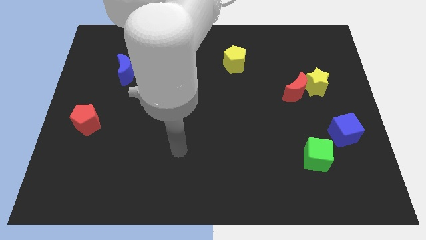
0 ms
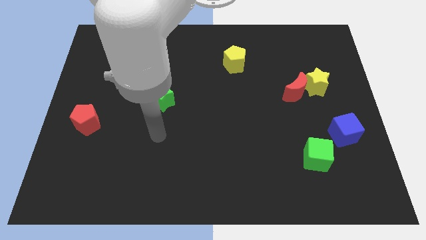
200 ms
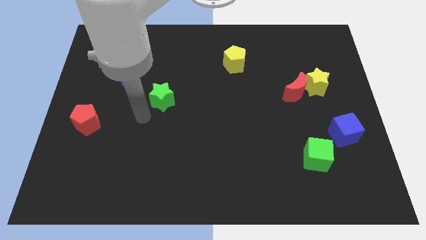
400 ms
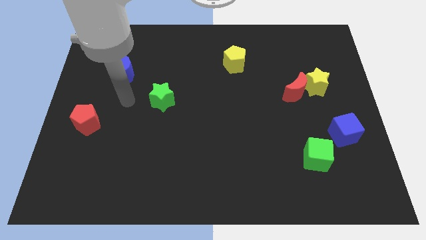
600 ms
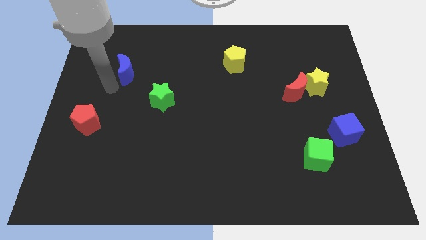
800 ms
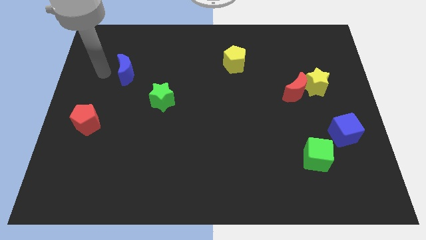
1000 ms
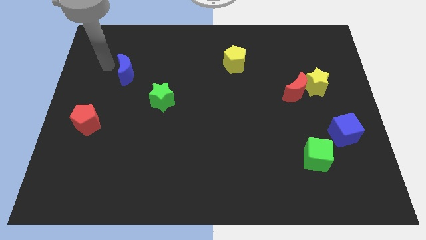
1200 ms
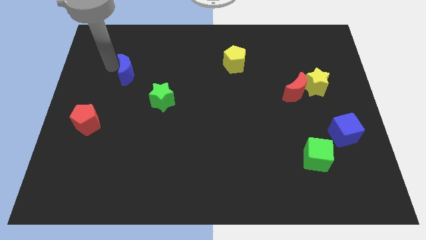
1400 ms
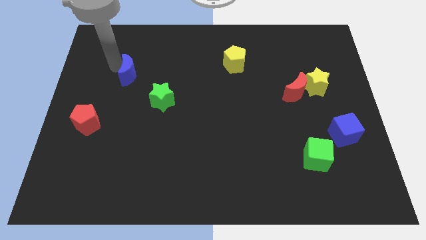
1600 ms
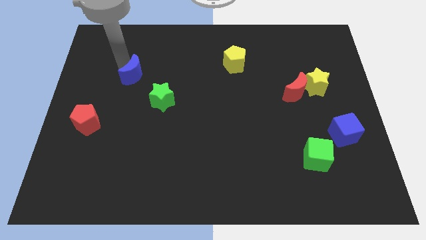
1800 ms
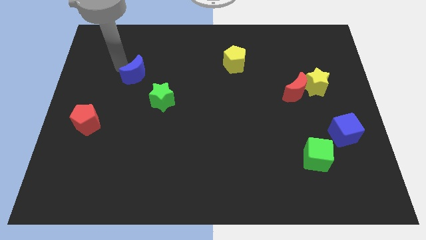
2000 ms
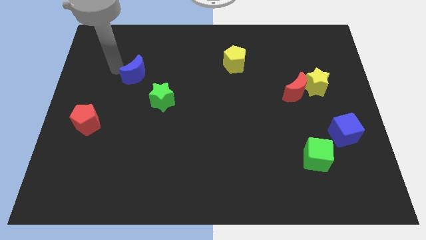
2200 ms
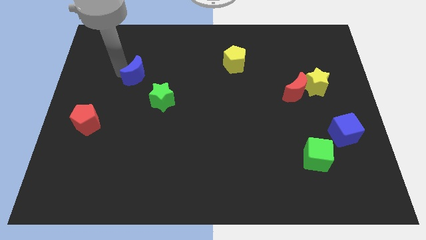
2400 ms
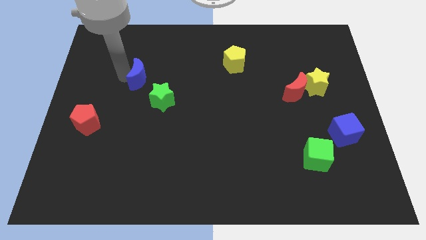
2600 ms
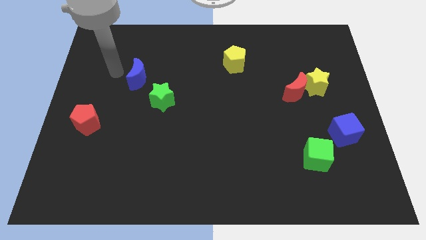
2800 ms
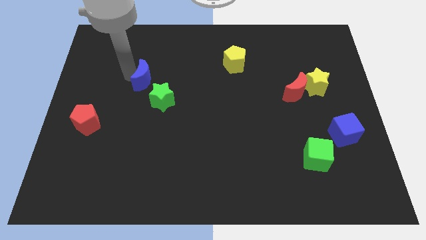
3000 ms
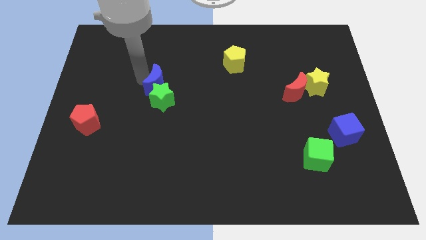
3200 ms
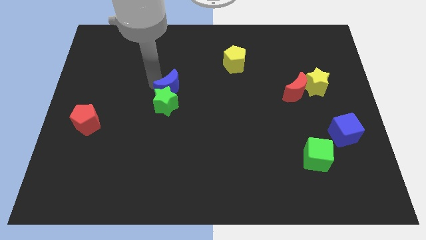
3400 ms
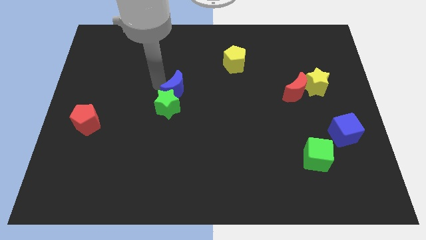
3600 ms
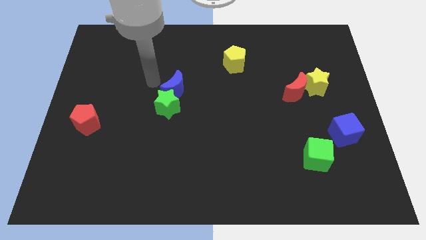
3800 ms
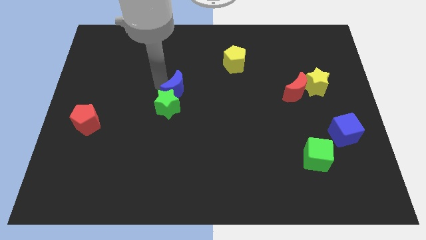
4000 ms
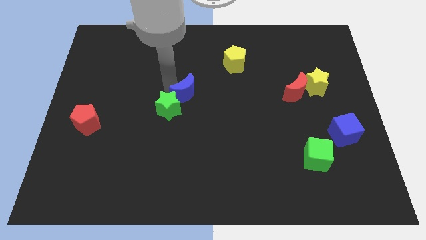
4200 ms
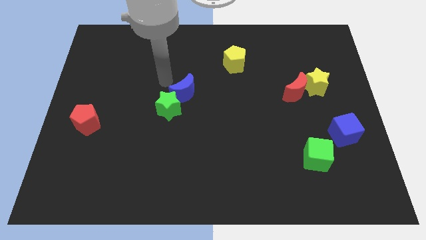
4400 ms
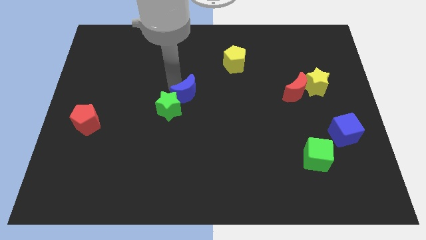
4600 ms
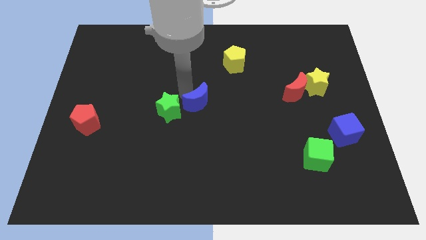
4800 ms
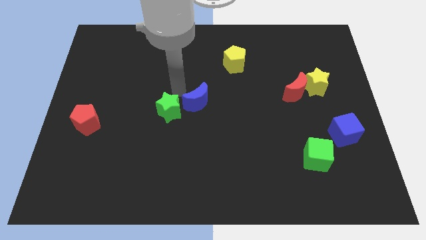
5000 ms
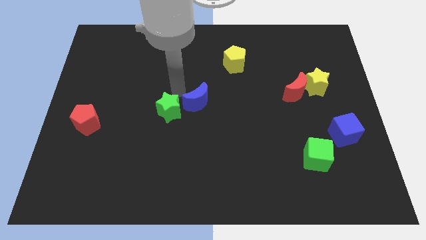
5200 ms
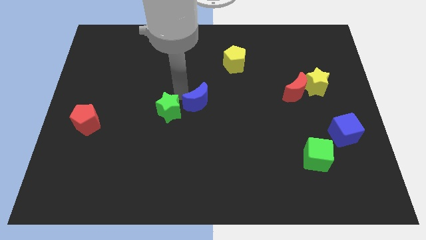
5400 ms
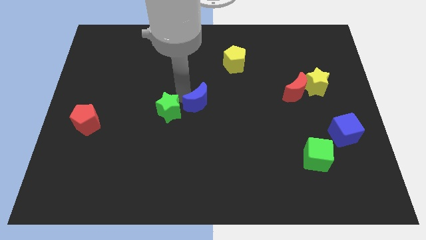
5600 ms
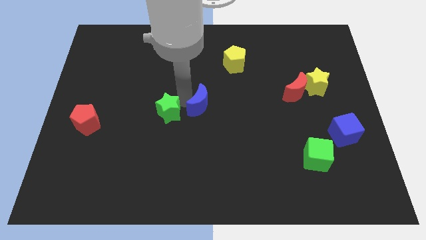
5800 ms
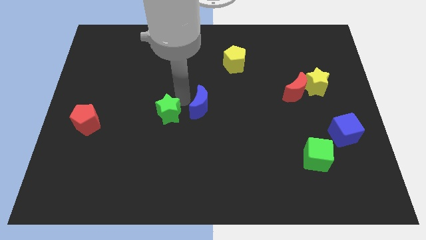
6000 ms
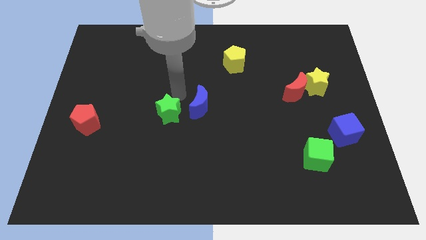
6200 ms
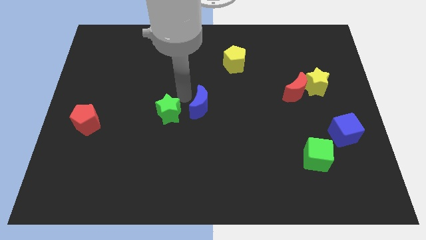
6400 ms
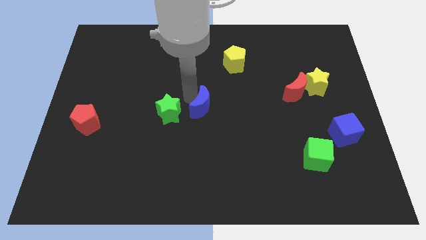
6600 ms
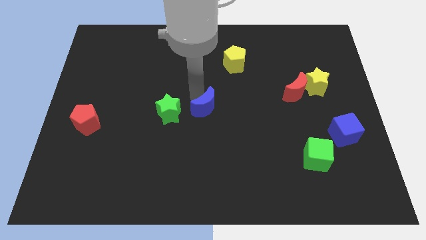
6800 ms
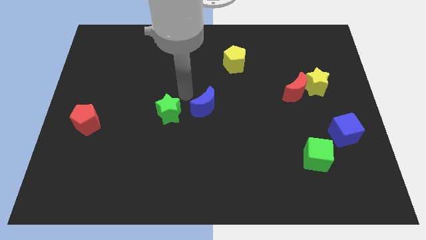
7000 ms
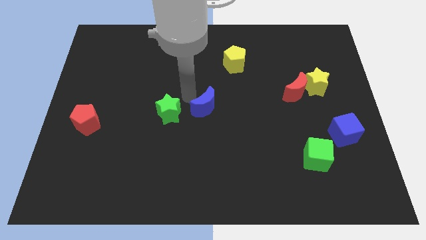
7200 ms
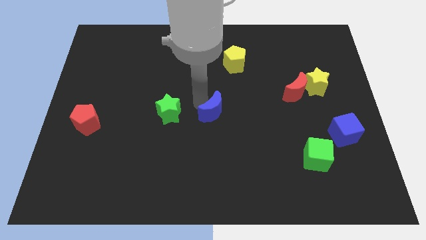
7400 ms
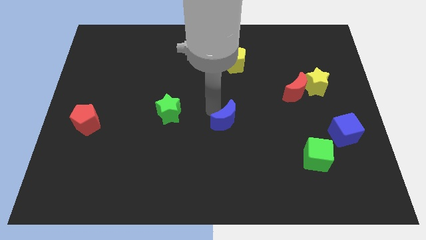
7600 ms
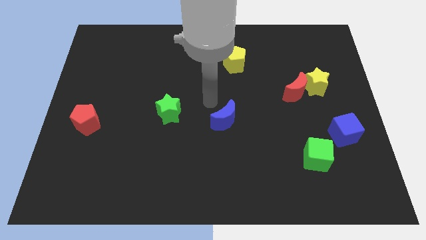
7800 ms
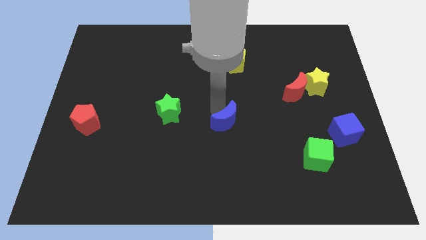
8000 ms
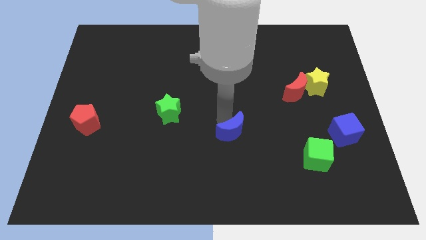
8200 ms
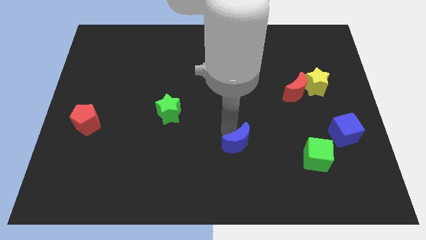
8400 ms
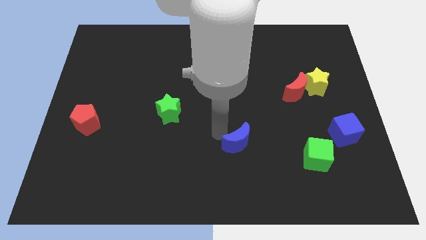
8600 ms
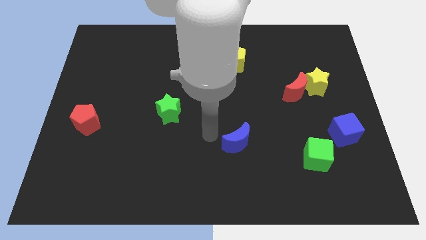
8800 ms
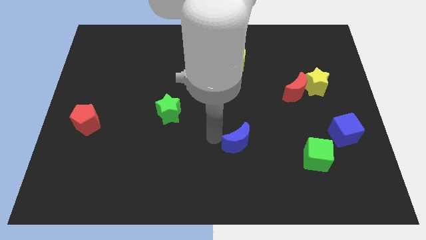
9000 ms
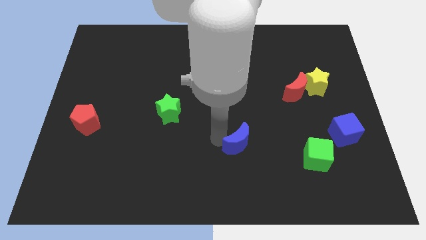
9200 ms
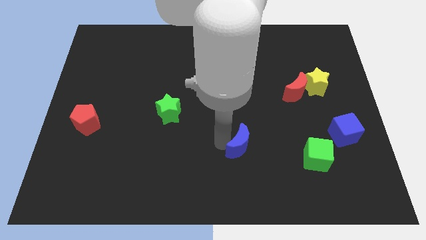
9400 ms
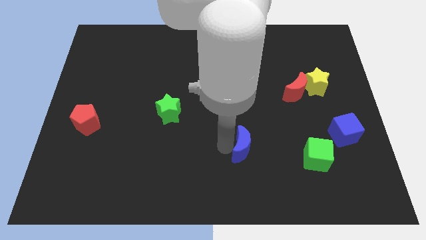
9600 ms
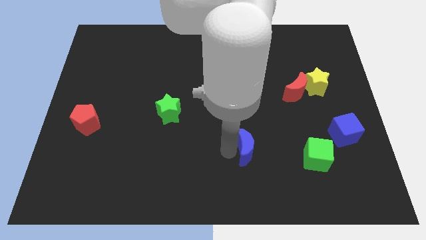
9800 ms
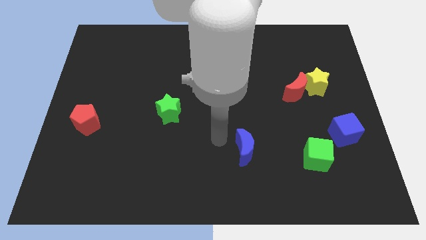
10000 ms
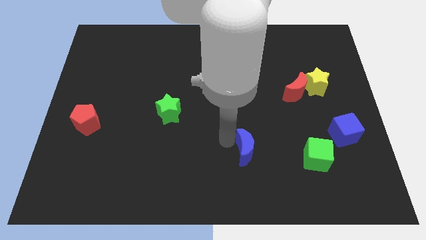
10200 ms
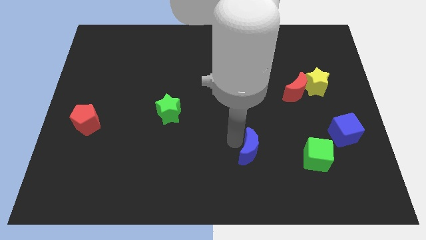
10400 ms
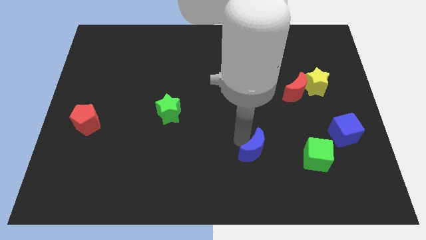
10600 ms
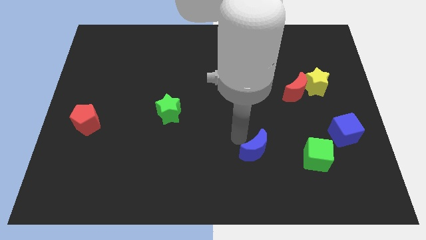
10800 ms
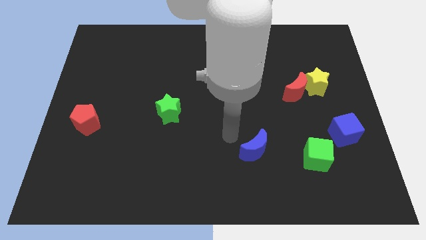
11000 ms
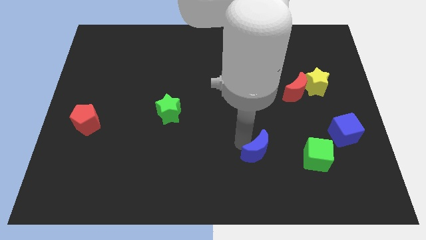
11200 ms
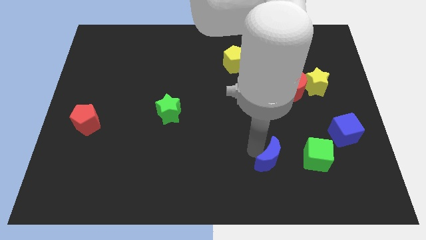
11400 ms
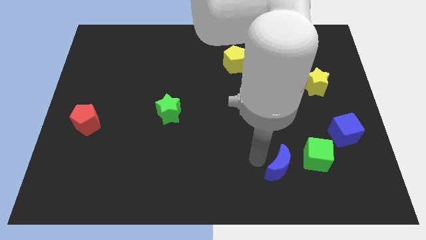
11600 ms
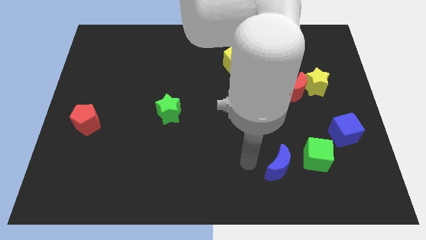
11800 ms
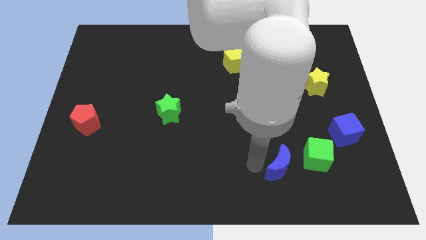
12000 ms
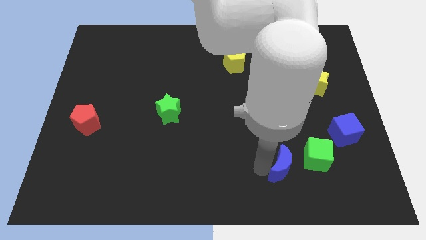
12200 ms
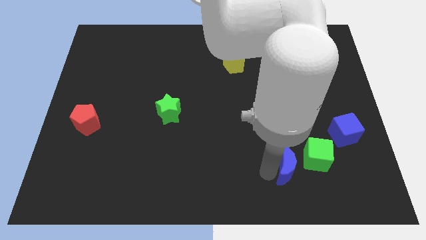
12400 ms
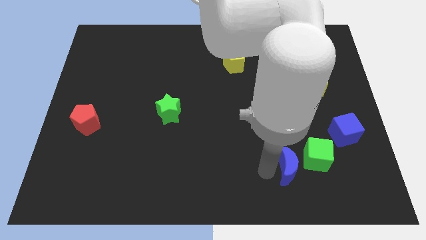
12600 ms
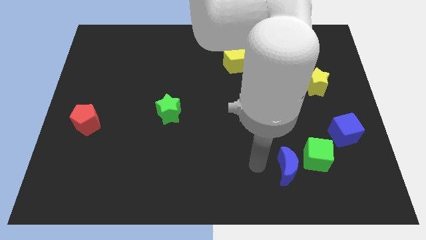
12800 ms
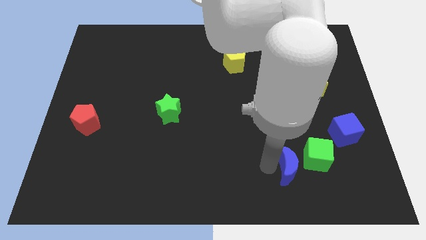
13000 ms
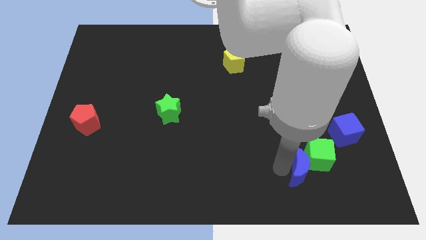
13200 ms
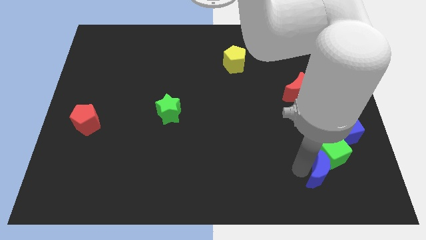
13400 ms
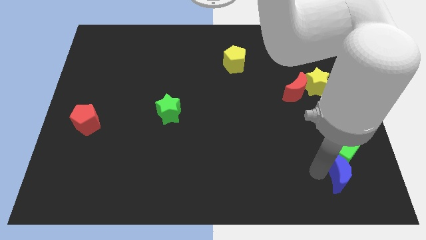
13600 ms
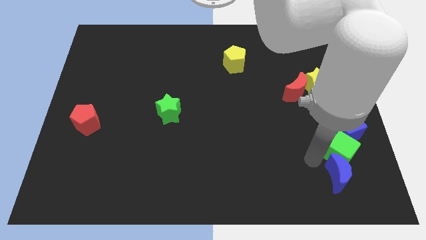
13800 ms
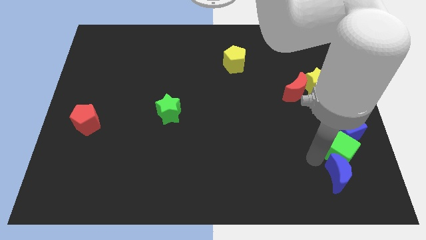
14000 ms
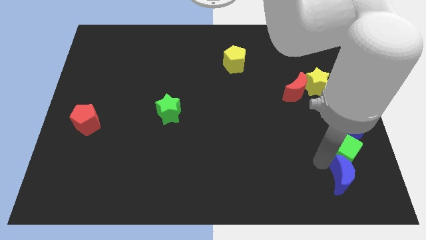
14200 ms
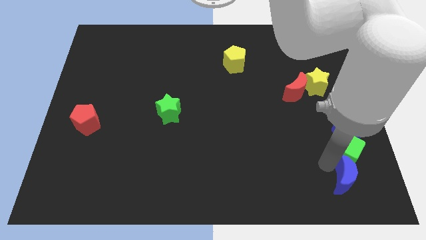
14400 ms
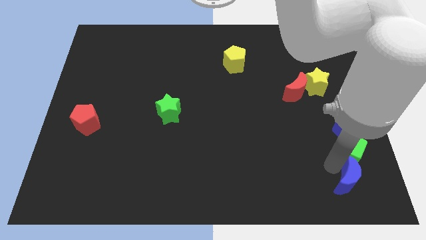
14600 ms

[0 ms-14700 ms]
slide the blue moon to the bottom right of the board
